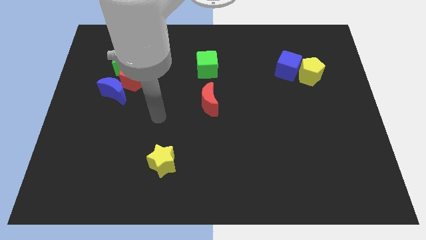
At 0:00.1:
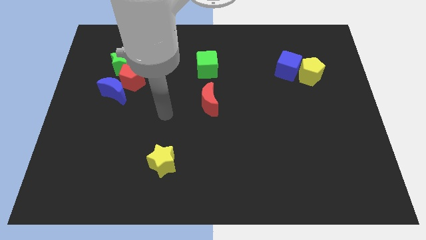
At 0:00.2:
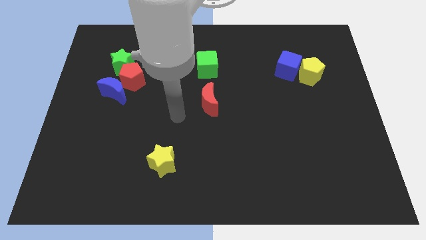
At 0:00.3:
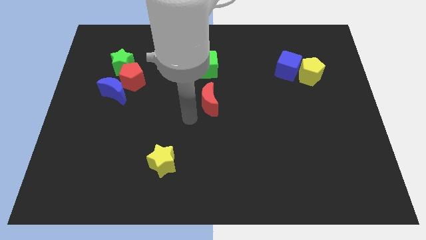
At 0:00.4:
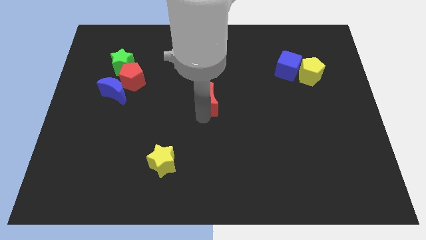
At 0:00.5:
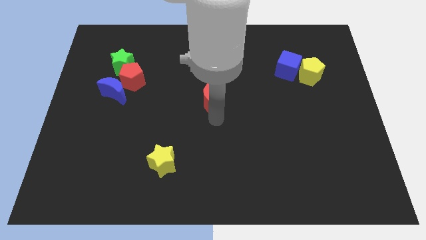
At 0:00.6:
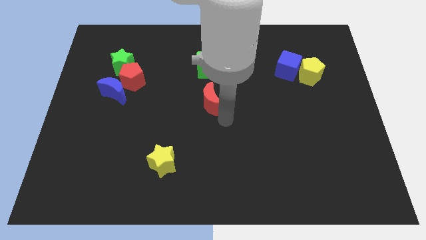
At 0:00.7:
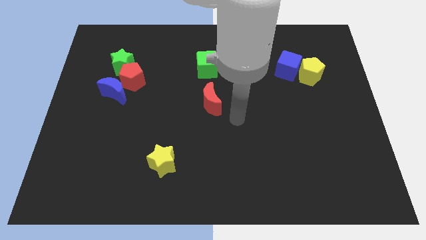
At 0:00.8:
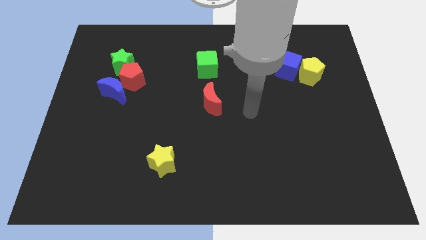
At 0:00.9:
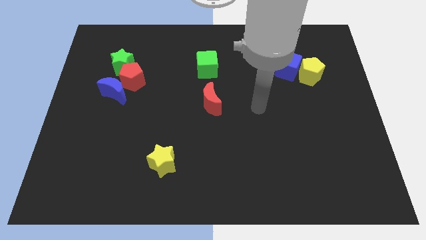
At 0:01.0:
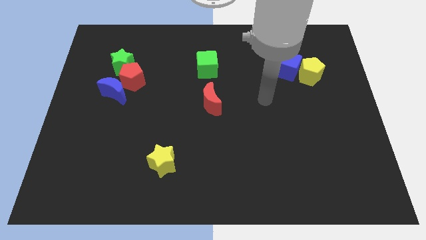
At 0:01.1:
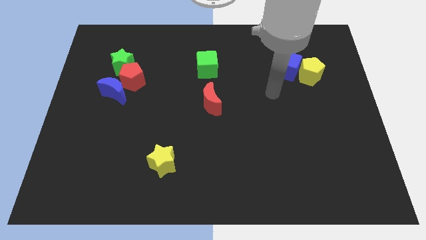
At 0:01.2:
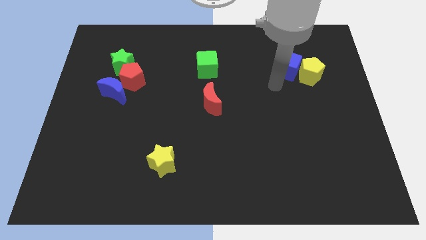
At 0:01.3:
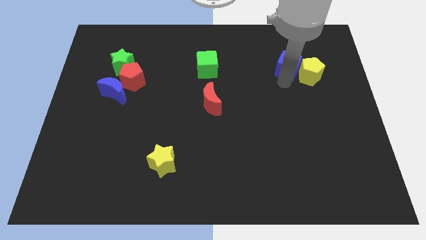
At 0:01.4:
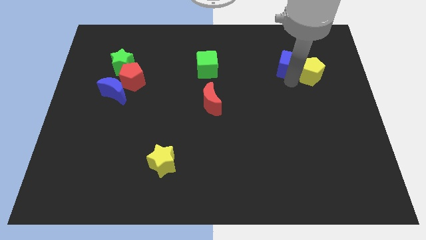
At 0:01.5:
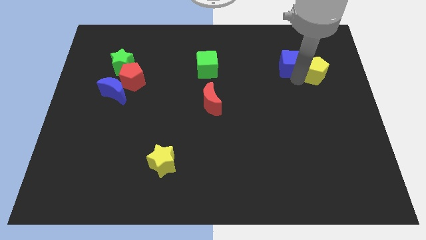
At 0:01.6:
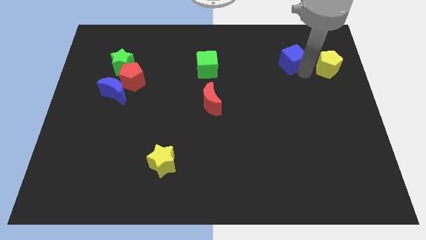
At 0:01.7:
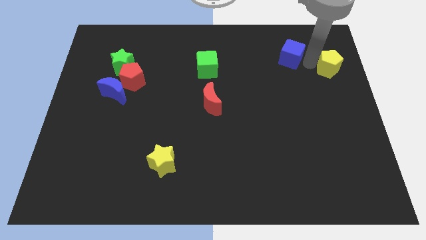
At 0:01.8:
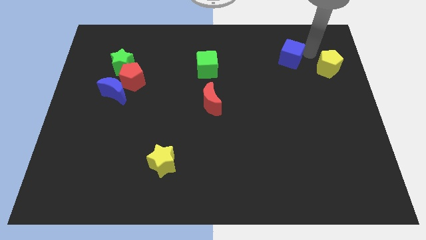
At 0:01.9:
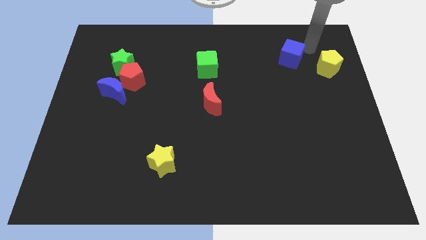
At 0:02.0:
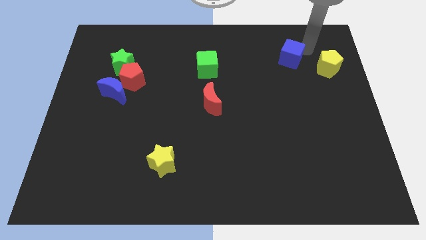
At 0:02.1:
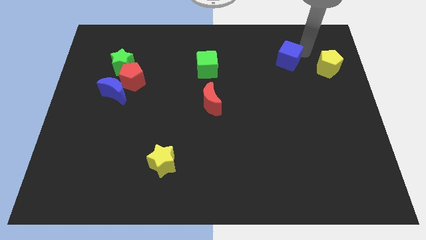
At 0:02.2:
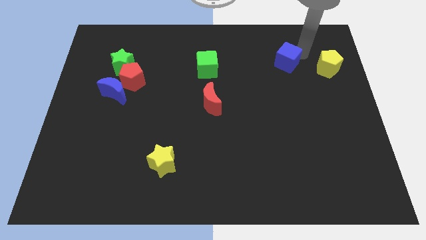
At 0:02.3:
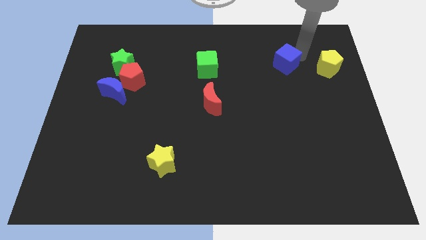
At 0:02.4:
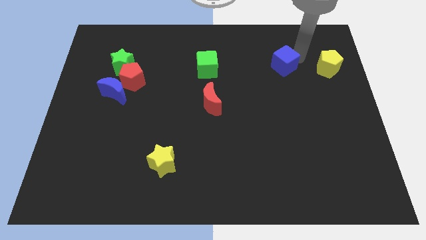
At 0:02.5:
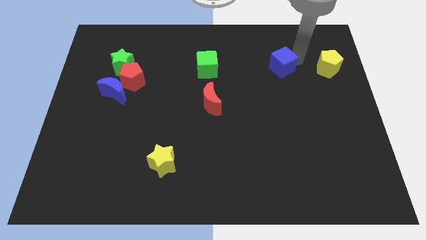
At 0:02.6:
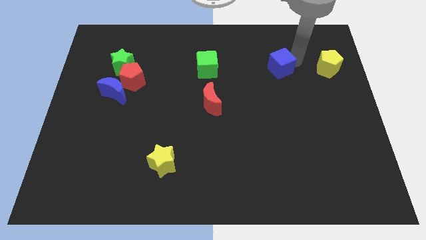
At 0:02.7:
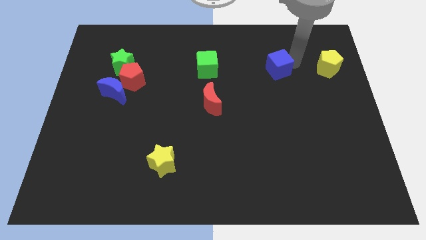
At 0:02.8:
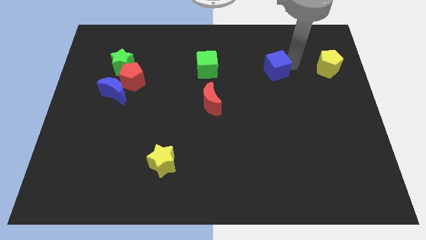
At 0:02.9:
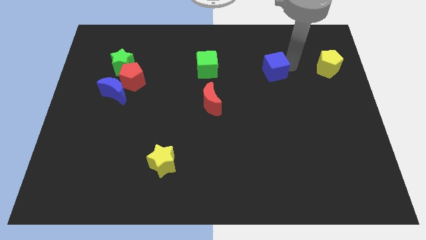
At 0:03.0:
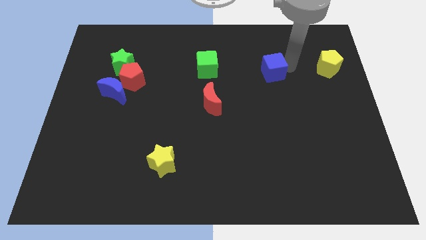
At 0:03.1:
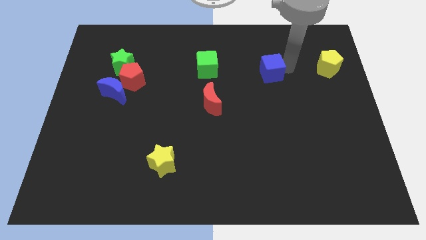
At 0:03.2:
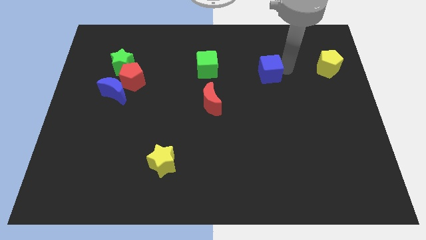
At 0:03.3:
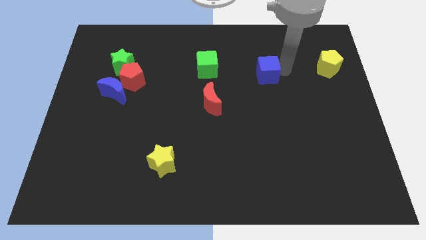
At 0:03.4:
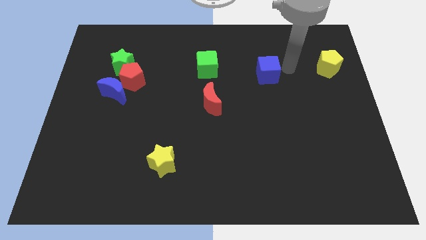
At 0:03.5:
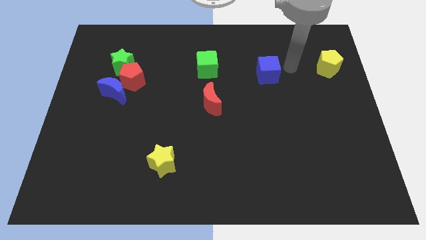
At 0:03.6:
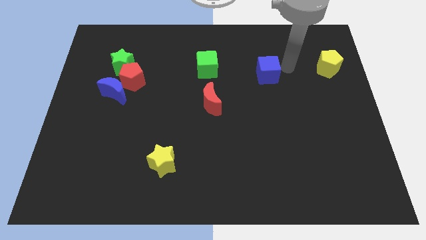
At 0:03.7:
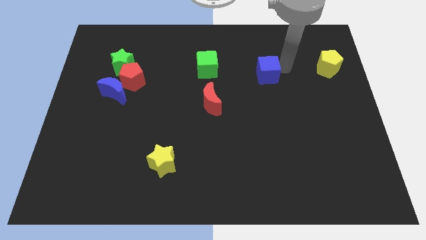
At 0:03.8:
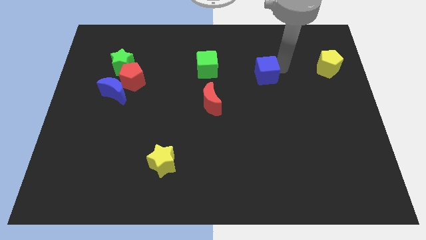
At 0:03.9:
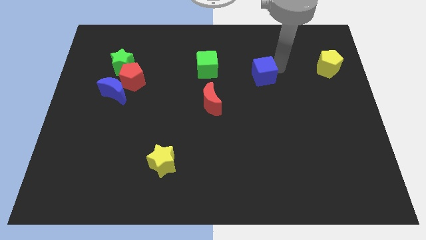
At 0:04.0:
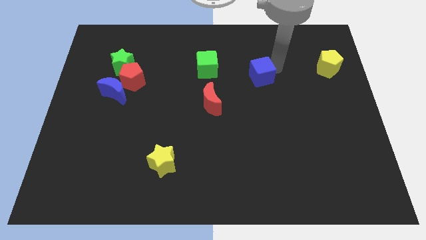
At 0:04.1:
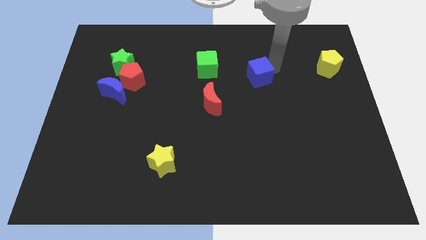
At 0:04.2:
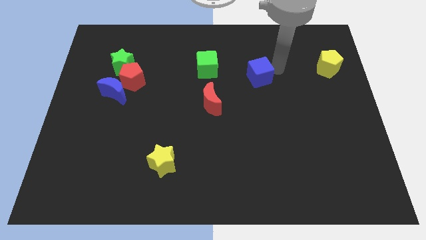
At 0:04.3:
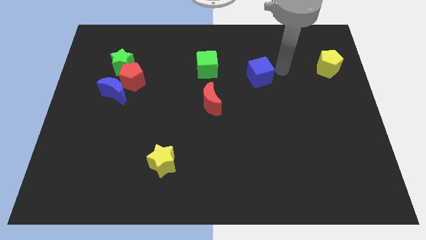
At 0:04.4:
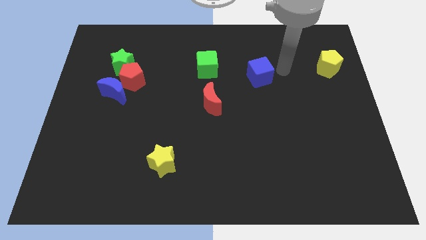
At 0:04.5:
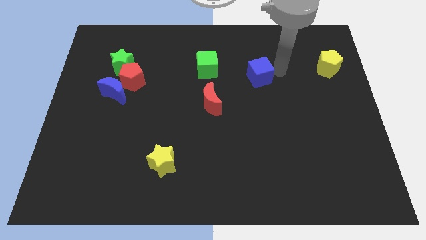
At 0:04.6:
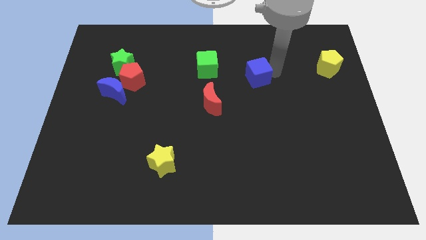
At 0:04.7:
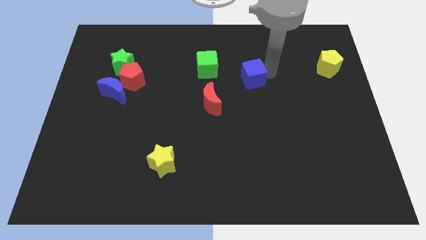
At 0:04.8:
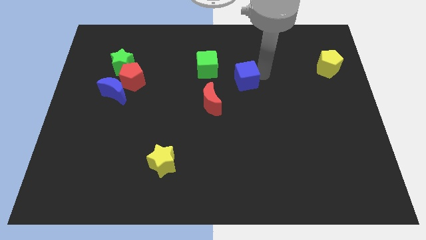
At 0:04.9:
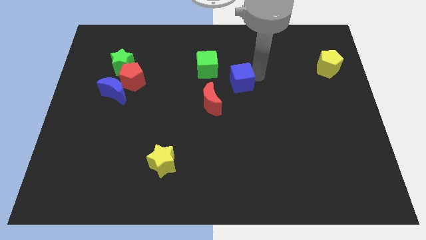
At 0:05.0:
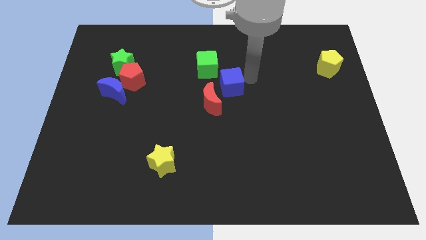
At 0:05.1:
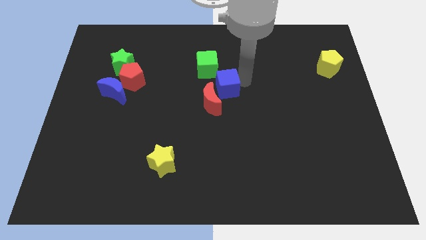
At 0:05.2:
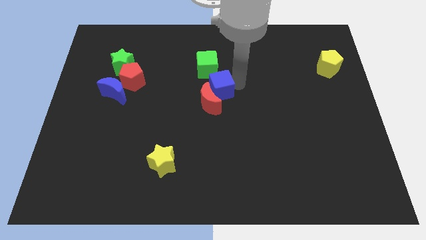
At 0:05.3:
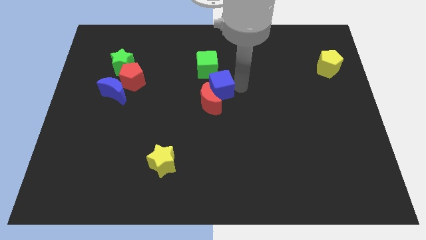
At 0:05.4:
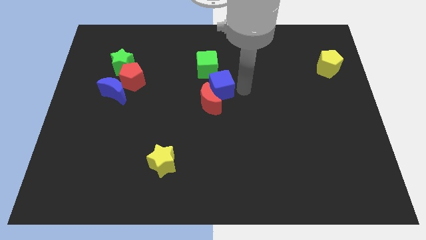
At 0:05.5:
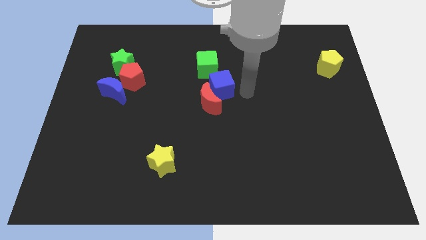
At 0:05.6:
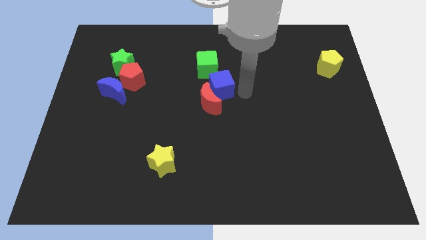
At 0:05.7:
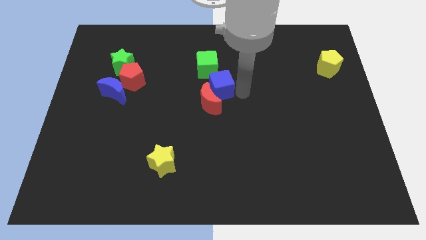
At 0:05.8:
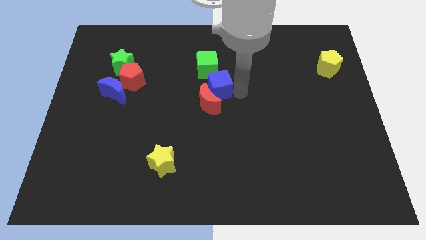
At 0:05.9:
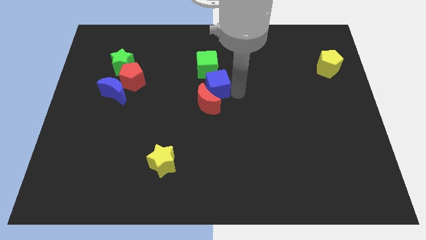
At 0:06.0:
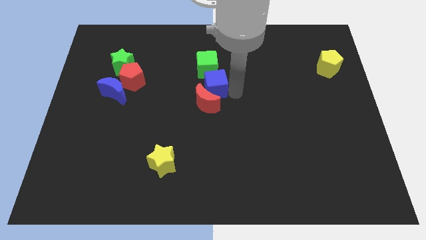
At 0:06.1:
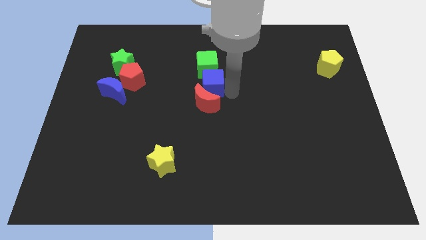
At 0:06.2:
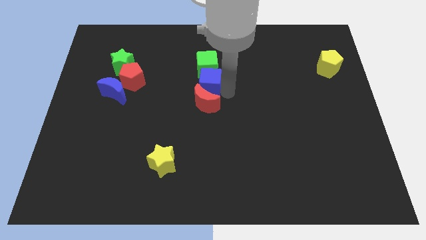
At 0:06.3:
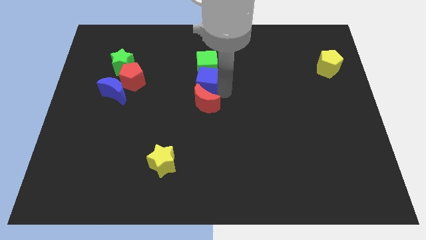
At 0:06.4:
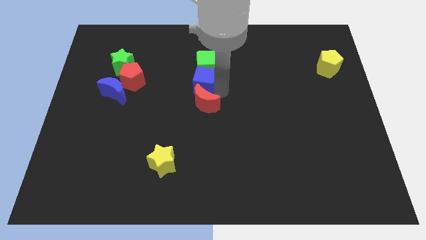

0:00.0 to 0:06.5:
push the blue cube left

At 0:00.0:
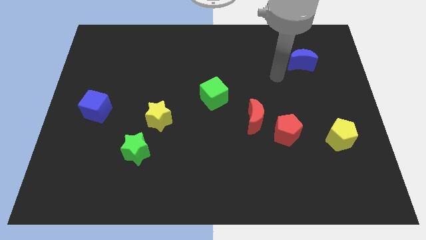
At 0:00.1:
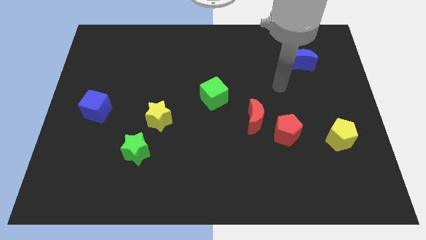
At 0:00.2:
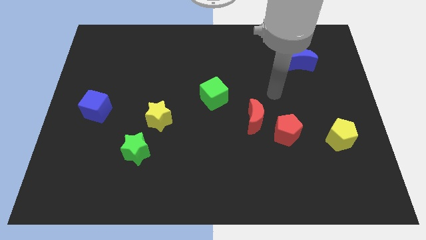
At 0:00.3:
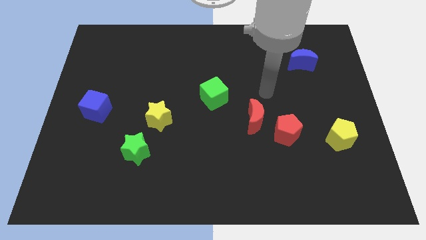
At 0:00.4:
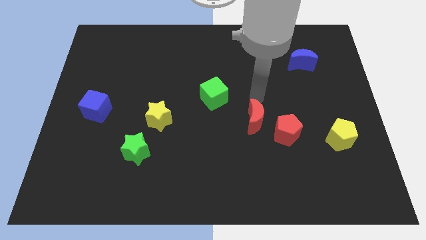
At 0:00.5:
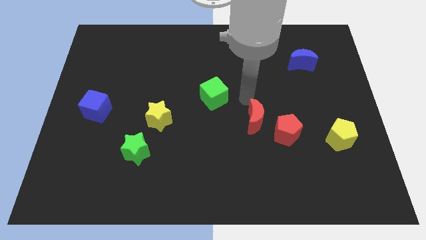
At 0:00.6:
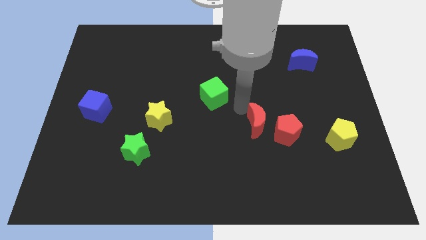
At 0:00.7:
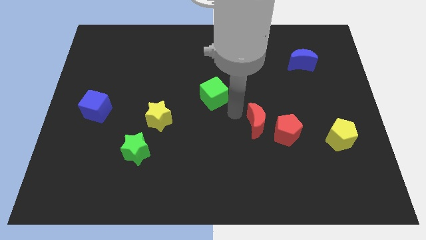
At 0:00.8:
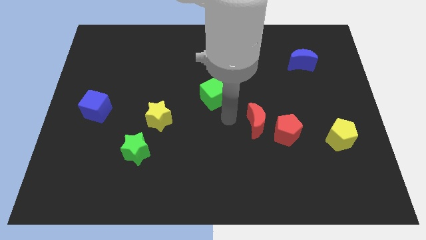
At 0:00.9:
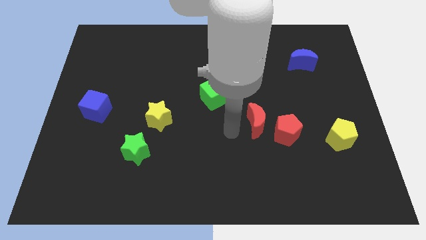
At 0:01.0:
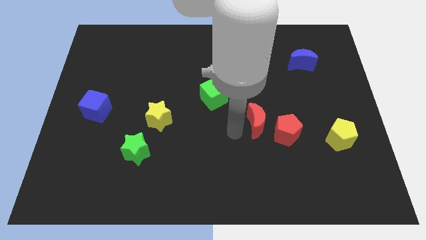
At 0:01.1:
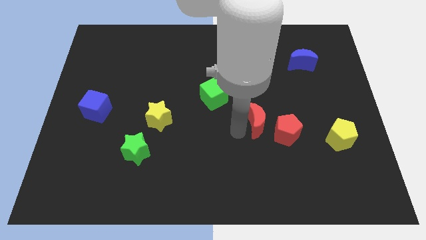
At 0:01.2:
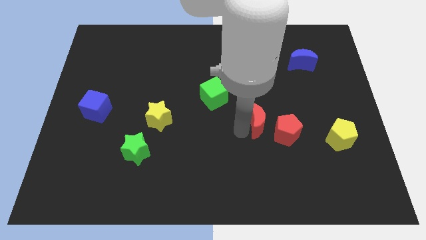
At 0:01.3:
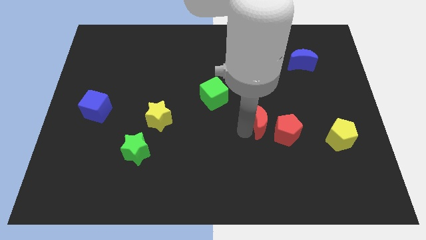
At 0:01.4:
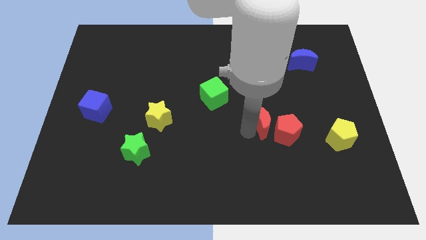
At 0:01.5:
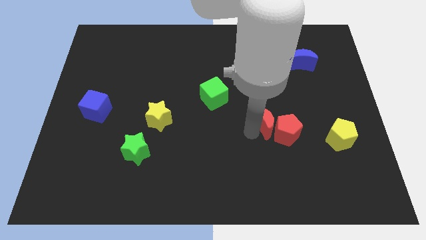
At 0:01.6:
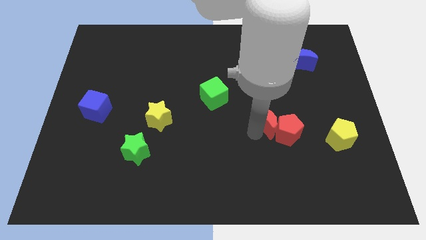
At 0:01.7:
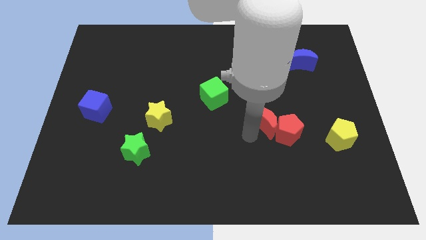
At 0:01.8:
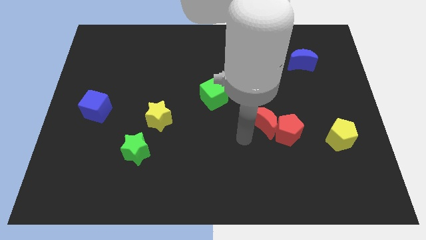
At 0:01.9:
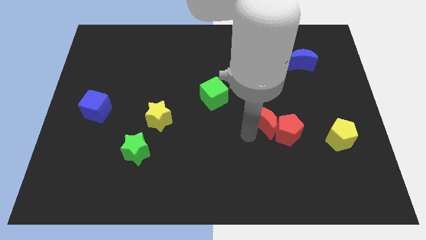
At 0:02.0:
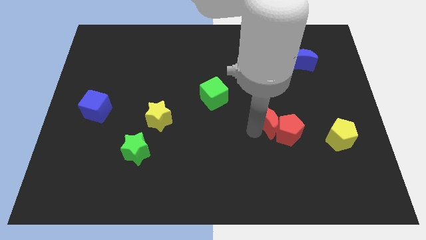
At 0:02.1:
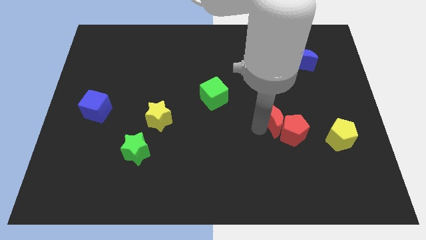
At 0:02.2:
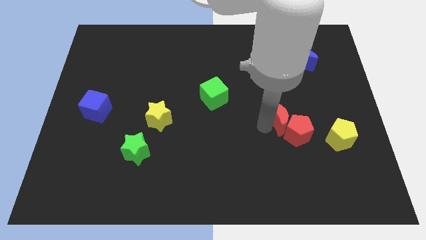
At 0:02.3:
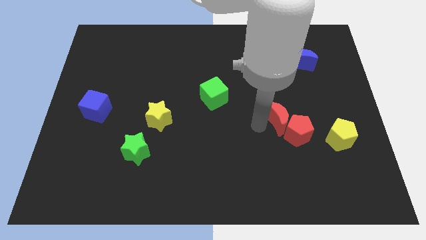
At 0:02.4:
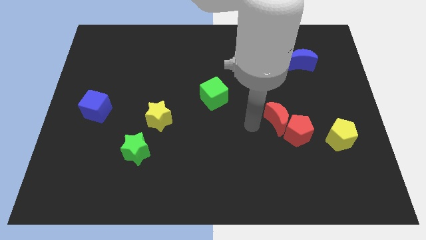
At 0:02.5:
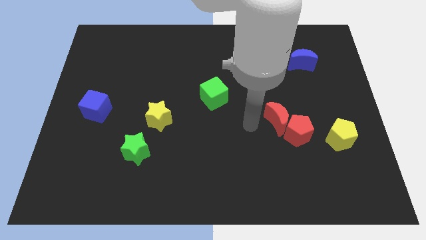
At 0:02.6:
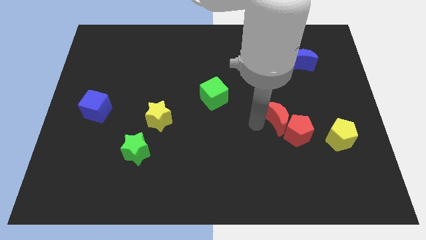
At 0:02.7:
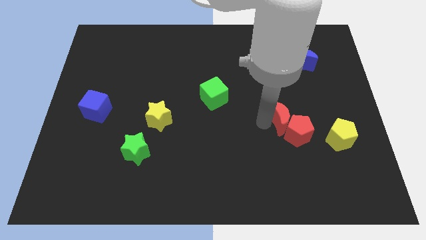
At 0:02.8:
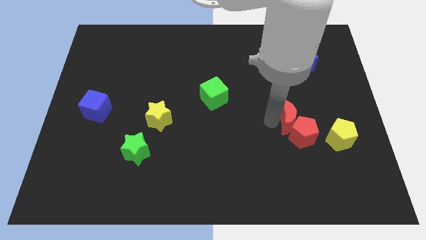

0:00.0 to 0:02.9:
move the red moon a little right
